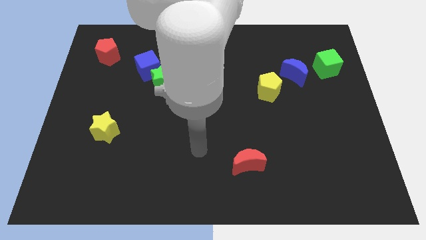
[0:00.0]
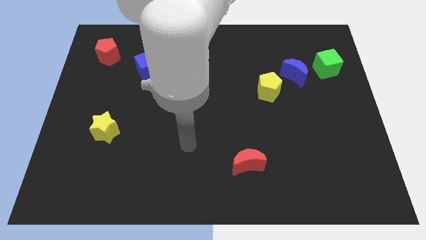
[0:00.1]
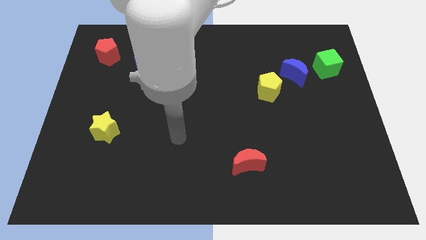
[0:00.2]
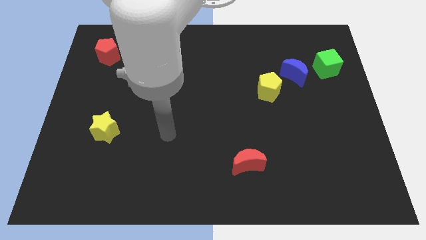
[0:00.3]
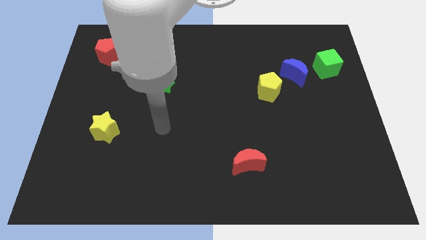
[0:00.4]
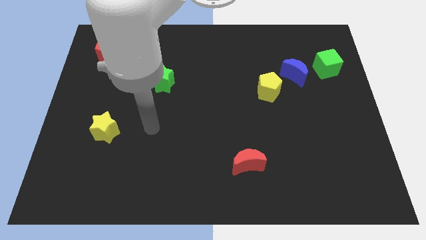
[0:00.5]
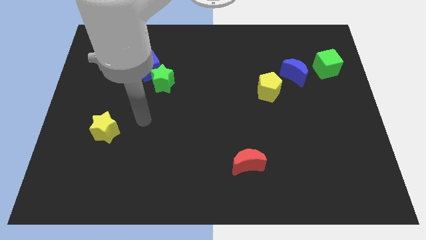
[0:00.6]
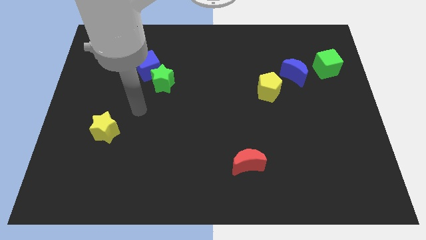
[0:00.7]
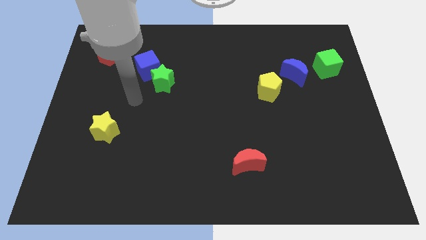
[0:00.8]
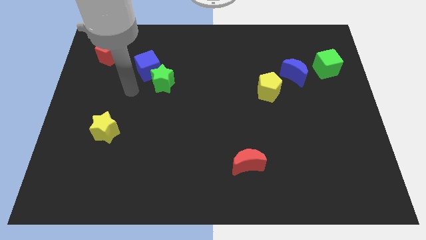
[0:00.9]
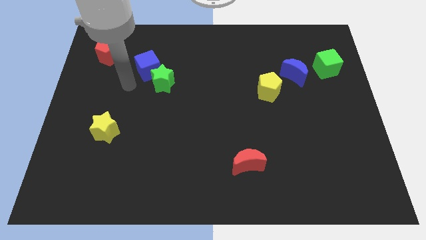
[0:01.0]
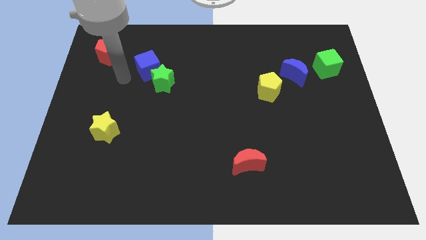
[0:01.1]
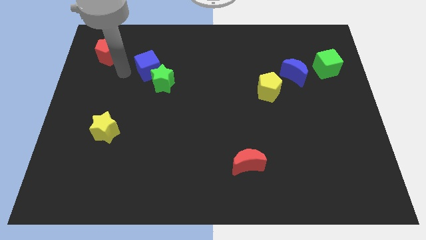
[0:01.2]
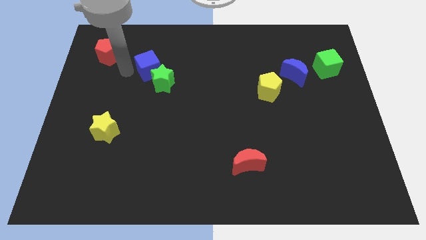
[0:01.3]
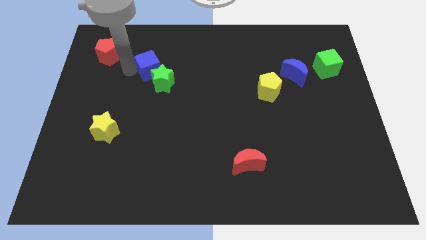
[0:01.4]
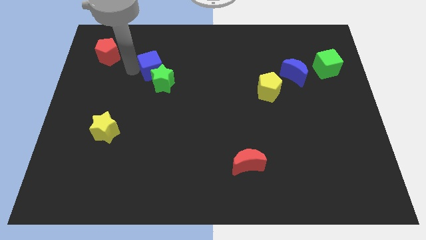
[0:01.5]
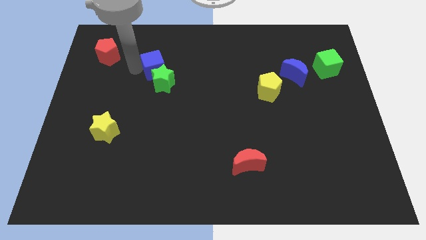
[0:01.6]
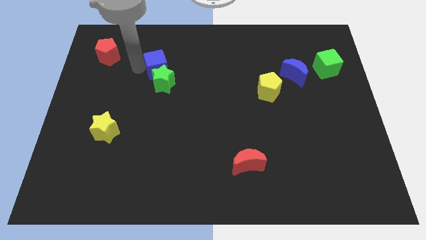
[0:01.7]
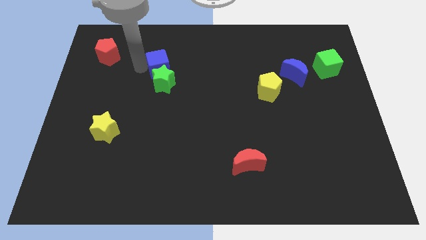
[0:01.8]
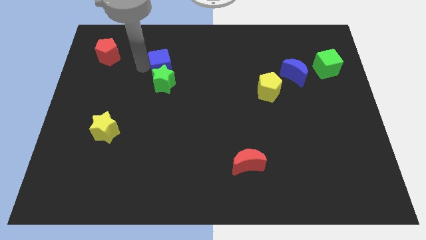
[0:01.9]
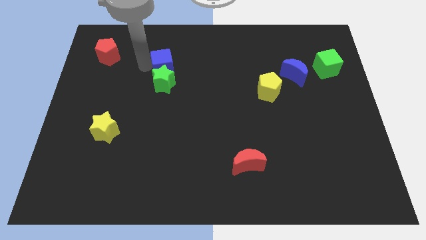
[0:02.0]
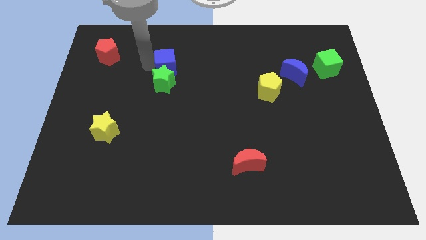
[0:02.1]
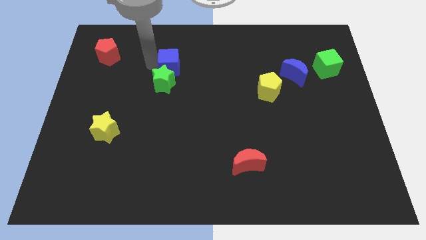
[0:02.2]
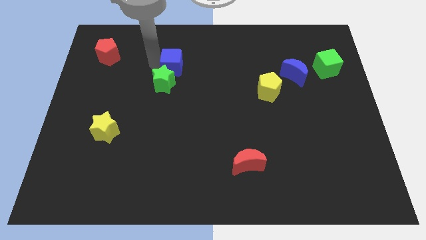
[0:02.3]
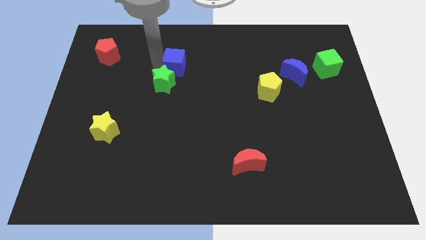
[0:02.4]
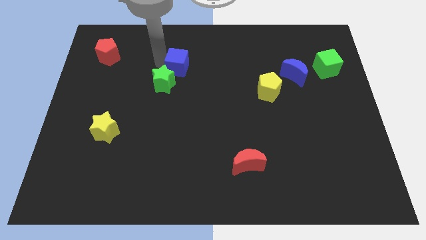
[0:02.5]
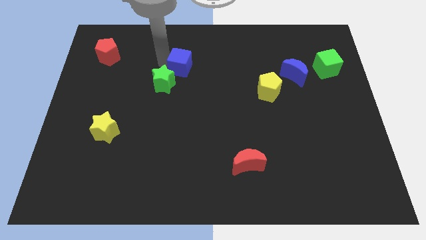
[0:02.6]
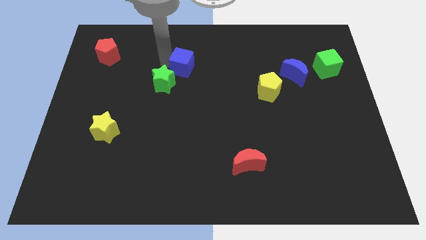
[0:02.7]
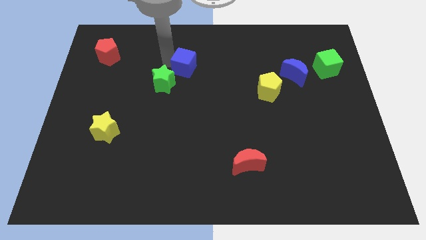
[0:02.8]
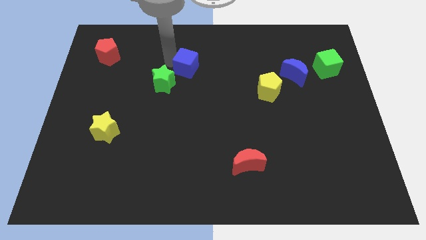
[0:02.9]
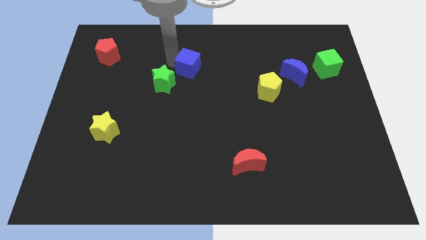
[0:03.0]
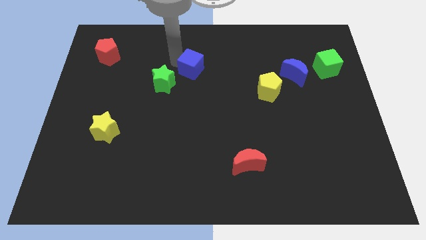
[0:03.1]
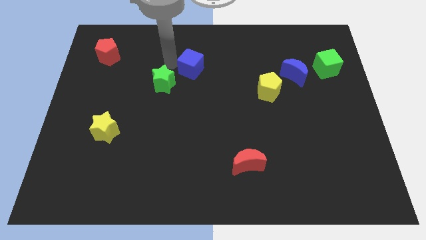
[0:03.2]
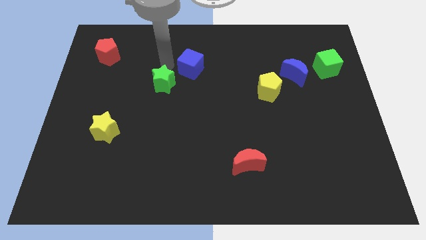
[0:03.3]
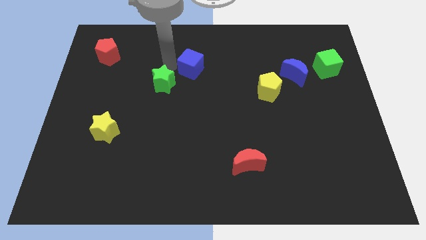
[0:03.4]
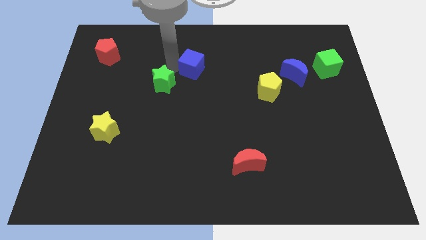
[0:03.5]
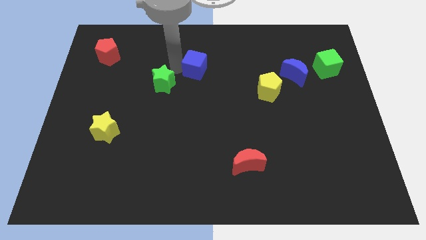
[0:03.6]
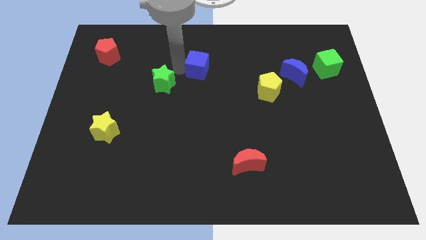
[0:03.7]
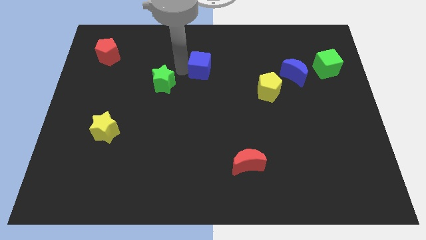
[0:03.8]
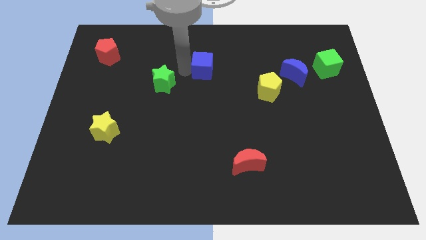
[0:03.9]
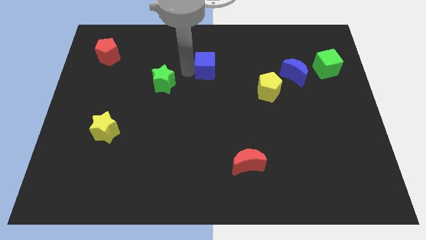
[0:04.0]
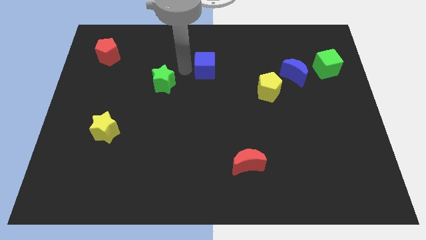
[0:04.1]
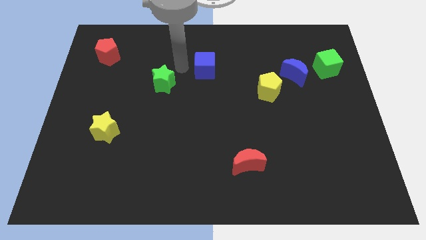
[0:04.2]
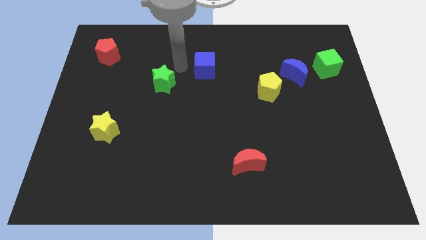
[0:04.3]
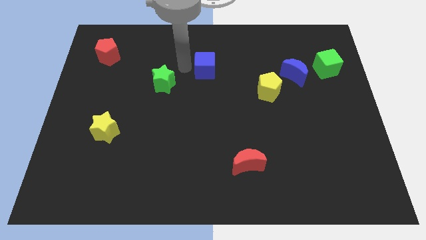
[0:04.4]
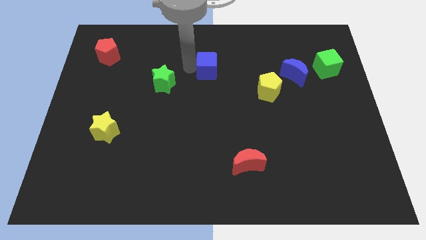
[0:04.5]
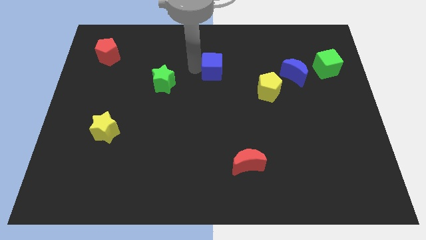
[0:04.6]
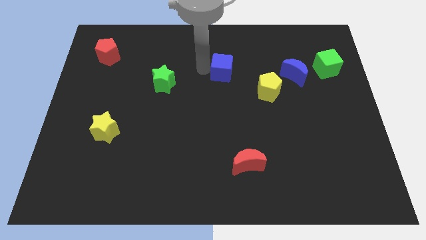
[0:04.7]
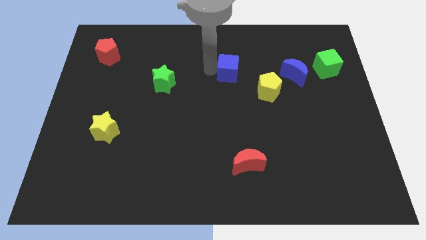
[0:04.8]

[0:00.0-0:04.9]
move the blue cube to the right

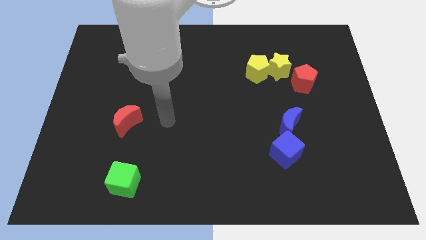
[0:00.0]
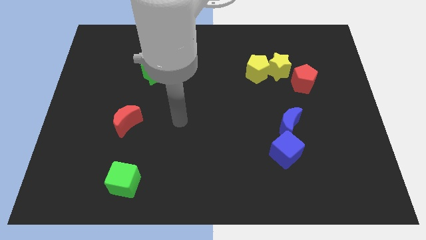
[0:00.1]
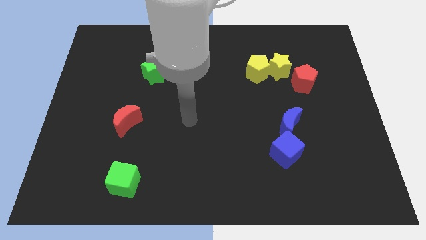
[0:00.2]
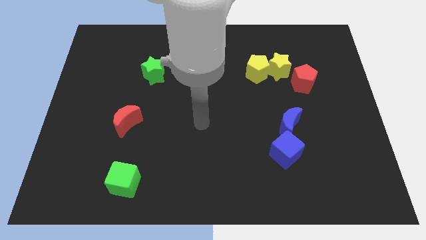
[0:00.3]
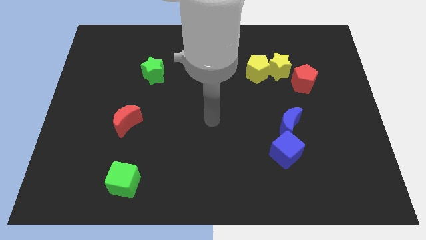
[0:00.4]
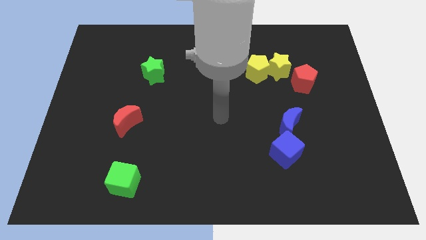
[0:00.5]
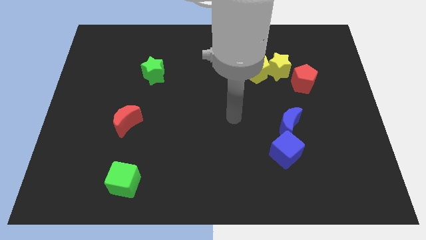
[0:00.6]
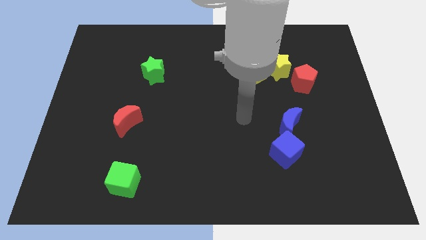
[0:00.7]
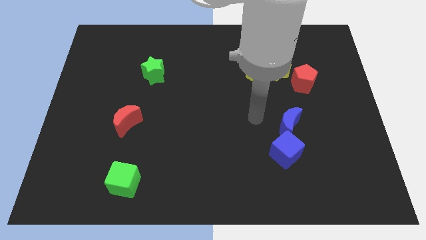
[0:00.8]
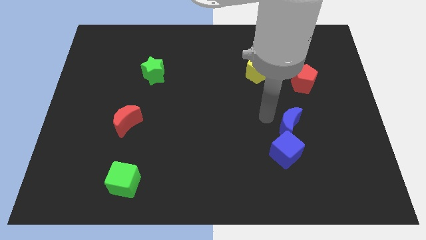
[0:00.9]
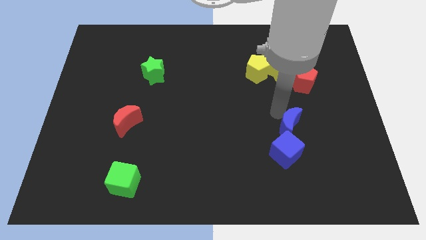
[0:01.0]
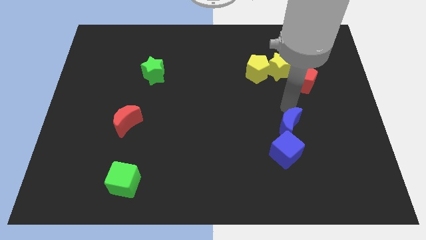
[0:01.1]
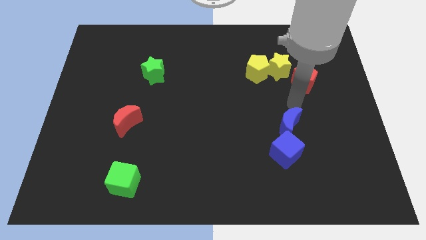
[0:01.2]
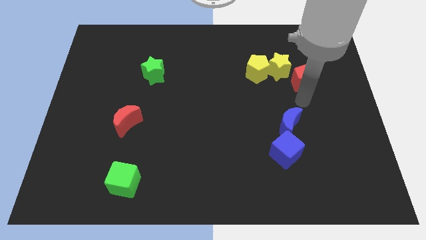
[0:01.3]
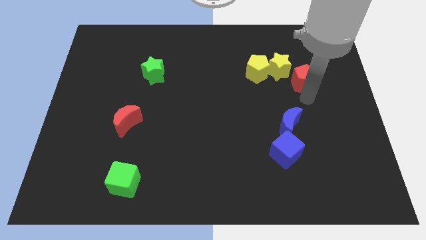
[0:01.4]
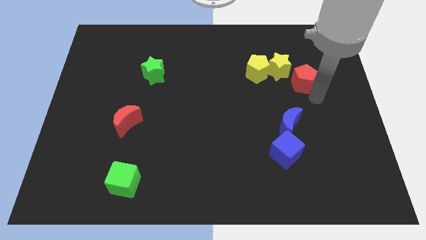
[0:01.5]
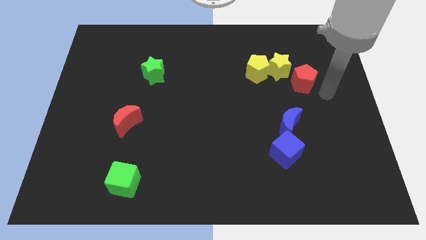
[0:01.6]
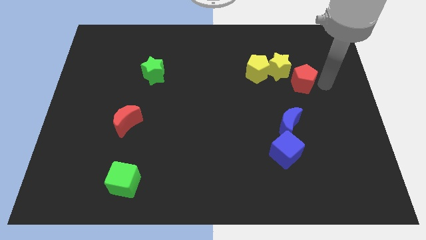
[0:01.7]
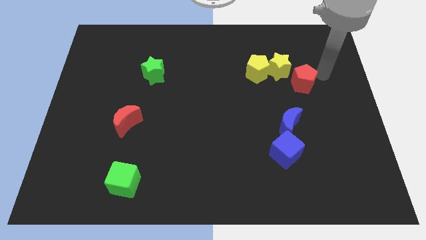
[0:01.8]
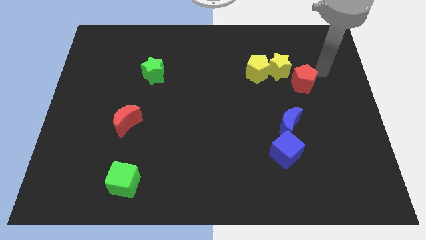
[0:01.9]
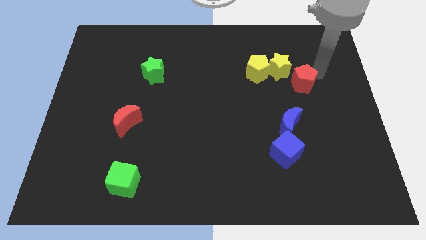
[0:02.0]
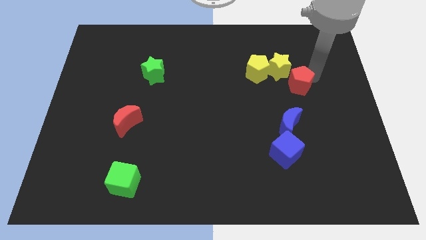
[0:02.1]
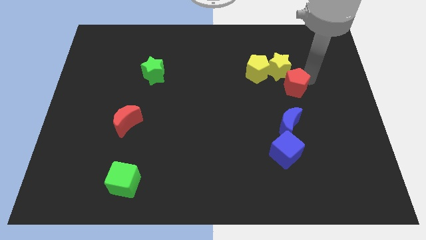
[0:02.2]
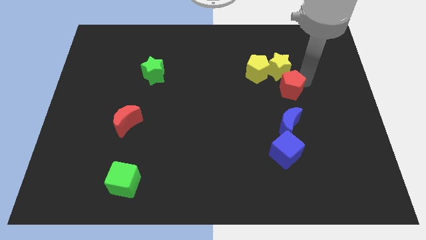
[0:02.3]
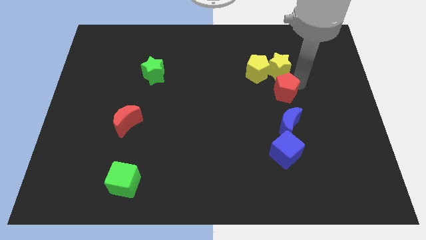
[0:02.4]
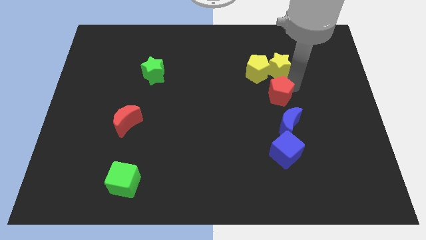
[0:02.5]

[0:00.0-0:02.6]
move the red pentagon a little downwards and then to the left

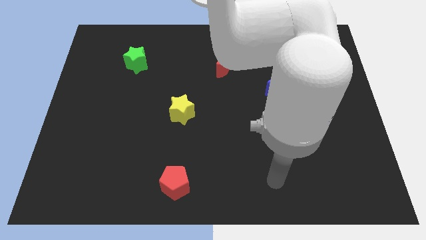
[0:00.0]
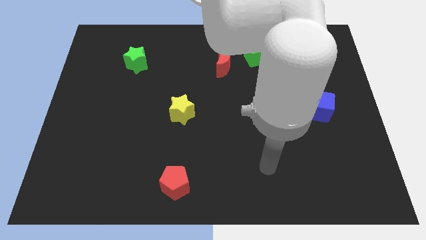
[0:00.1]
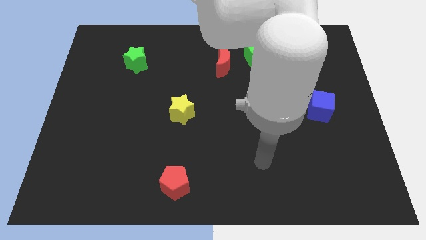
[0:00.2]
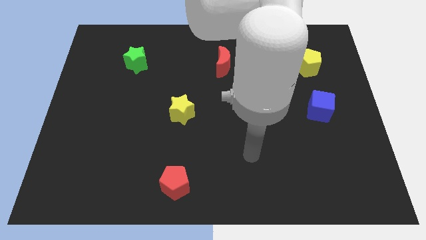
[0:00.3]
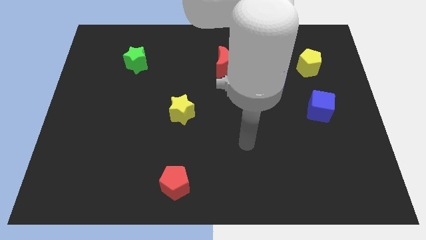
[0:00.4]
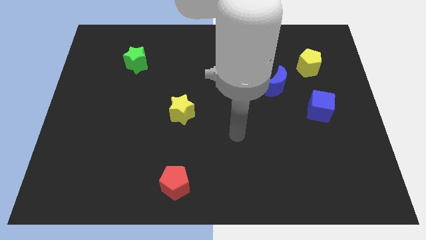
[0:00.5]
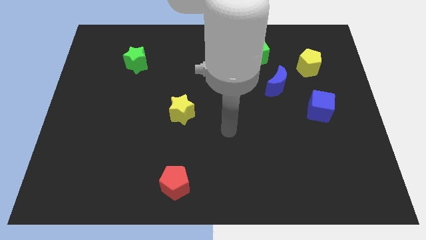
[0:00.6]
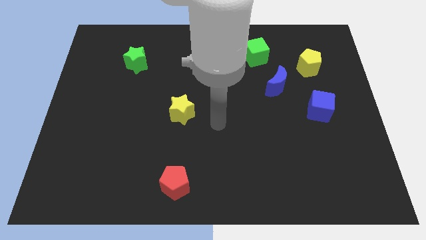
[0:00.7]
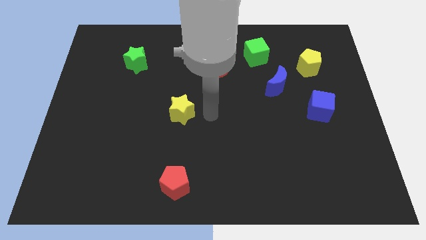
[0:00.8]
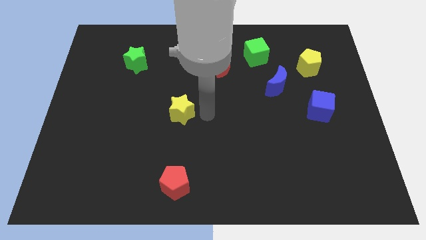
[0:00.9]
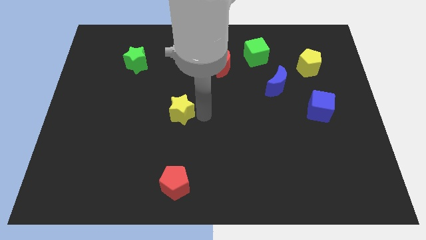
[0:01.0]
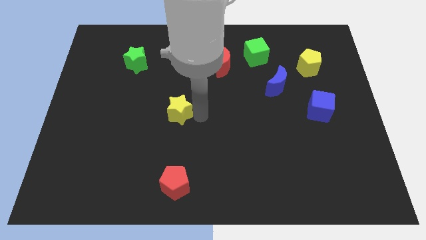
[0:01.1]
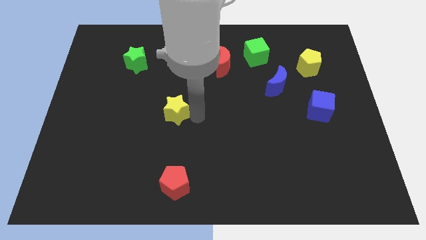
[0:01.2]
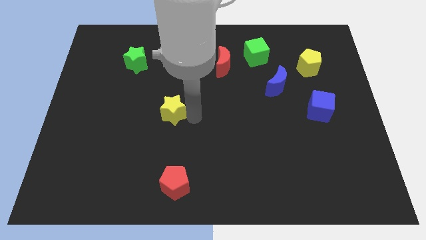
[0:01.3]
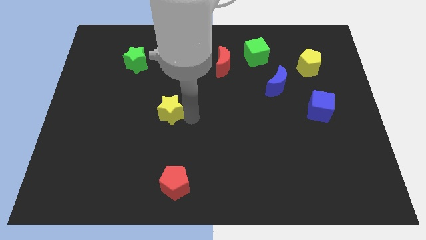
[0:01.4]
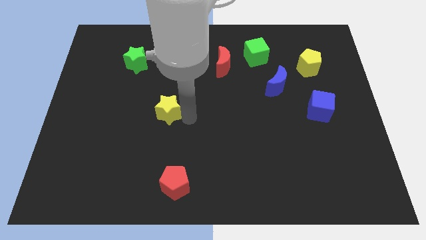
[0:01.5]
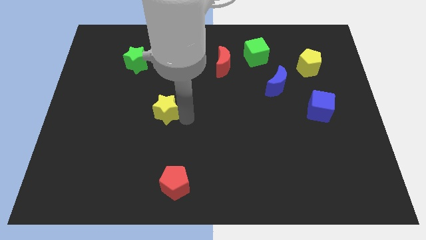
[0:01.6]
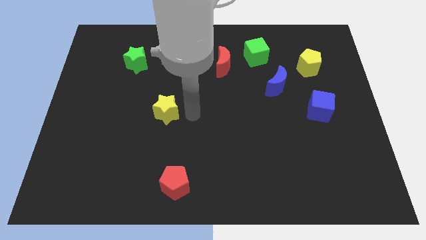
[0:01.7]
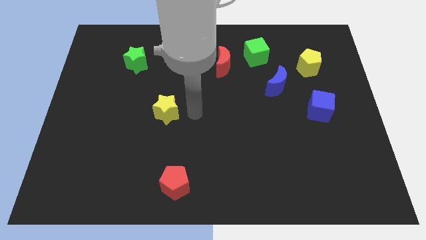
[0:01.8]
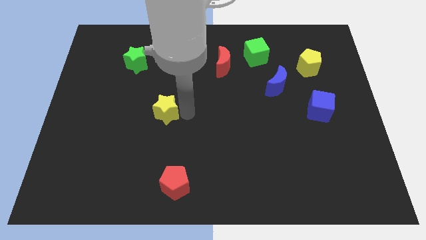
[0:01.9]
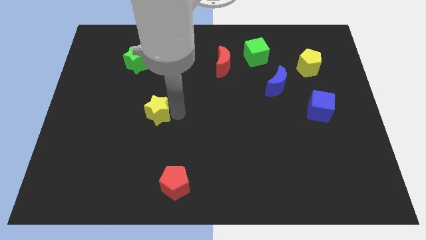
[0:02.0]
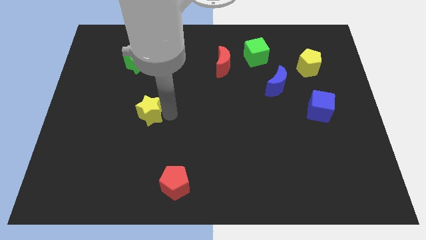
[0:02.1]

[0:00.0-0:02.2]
move the yellow star somewhat to the left
